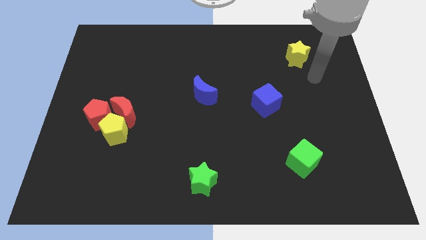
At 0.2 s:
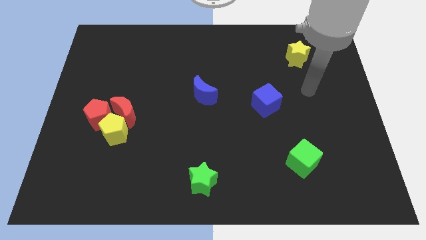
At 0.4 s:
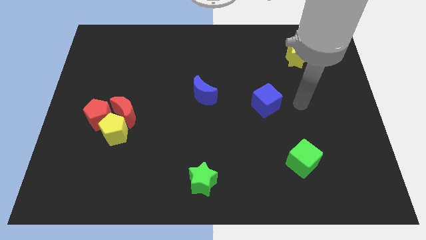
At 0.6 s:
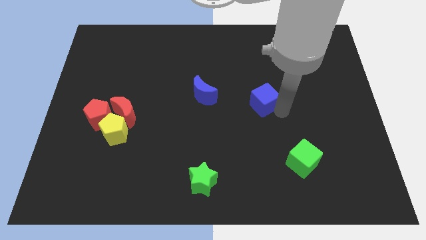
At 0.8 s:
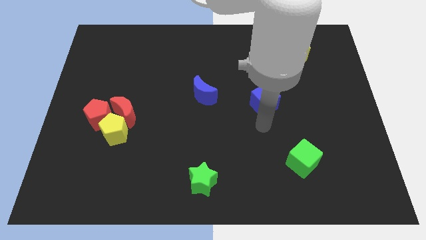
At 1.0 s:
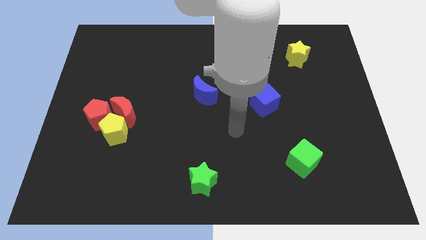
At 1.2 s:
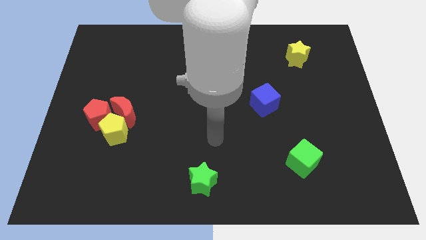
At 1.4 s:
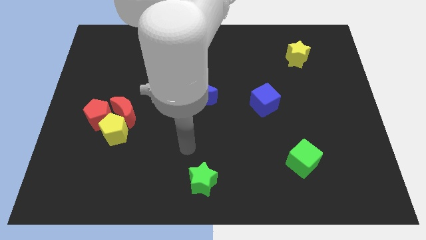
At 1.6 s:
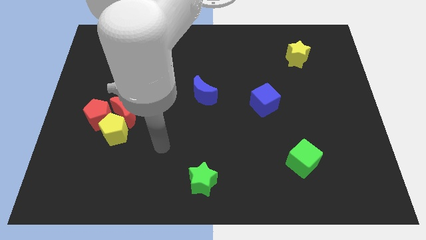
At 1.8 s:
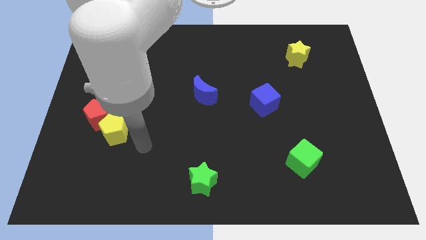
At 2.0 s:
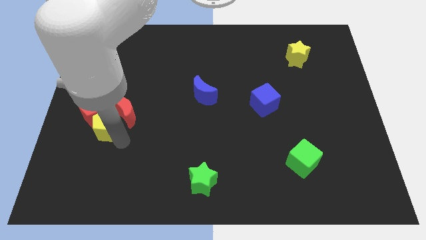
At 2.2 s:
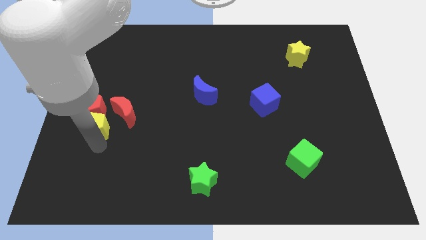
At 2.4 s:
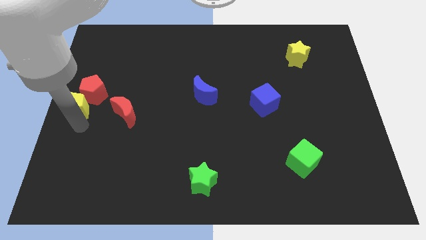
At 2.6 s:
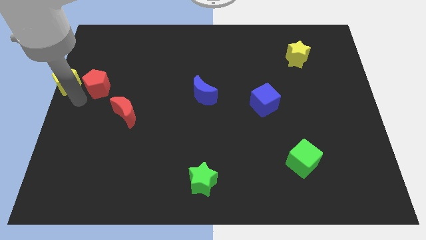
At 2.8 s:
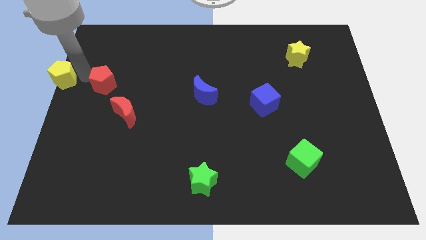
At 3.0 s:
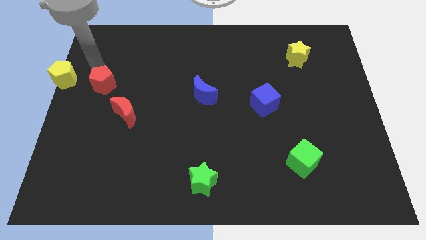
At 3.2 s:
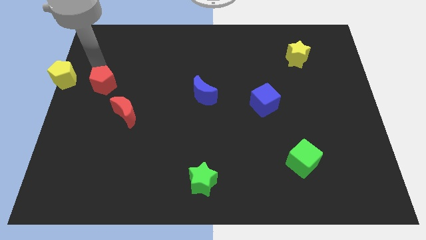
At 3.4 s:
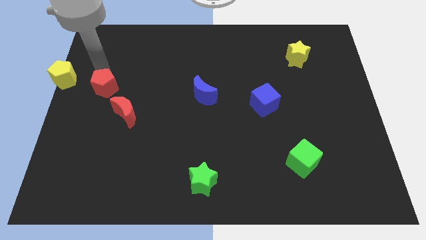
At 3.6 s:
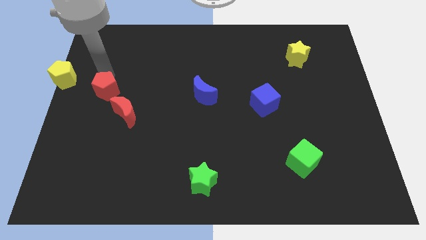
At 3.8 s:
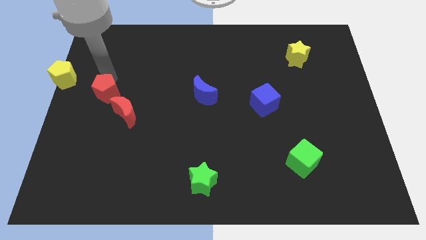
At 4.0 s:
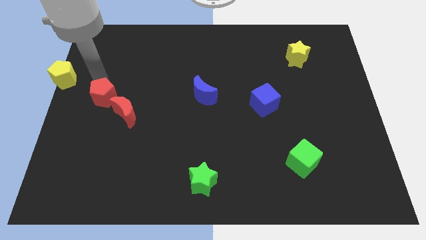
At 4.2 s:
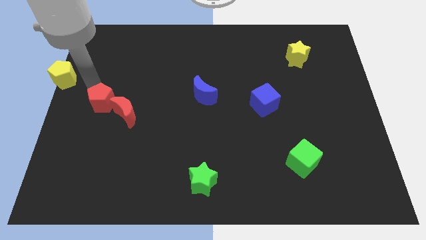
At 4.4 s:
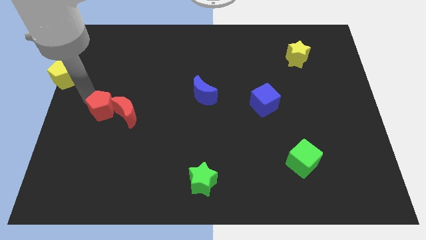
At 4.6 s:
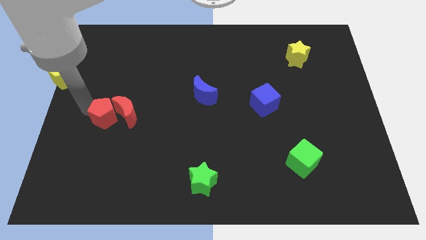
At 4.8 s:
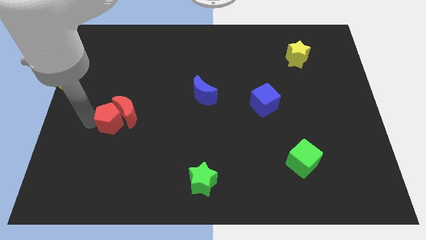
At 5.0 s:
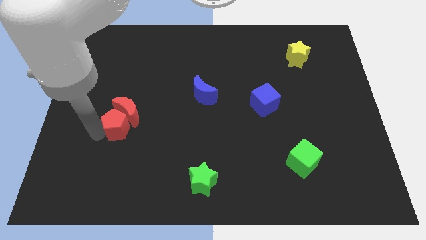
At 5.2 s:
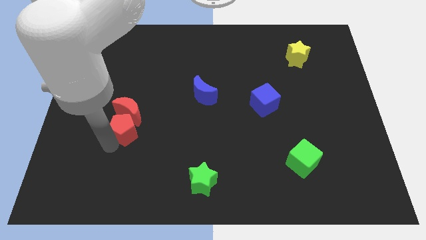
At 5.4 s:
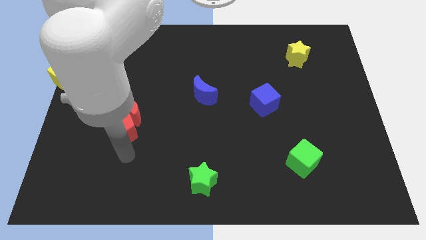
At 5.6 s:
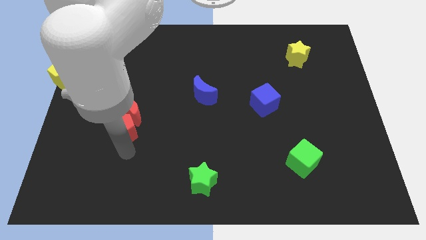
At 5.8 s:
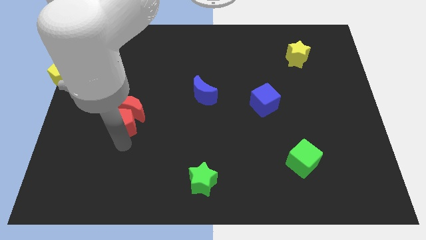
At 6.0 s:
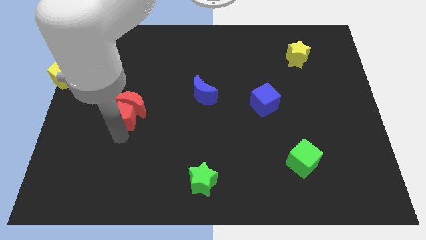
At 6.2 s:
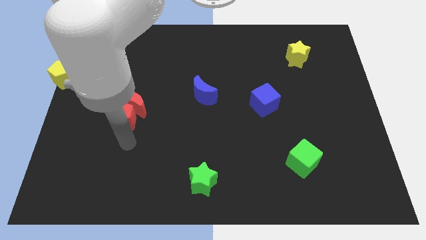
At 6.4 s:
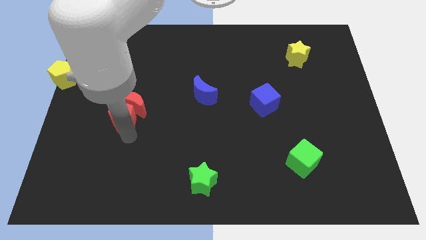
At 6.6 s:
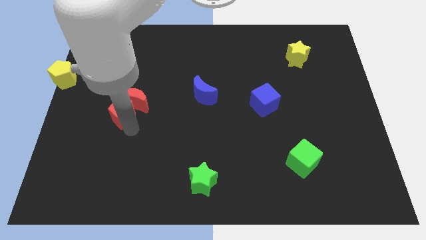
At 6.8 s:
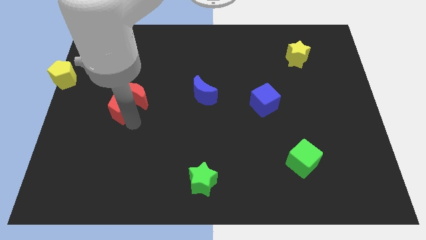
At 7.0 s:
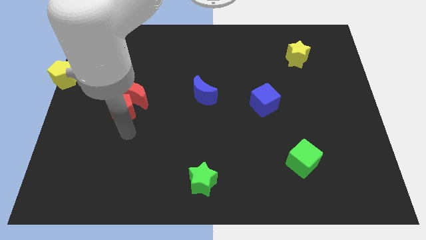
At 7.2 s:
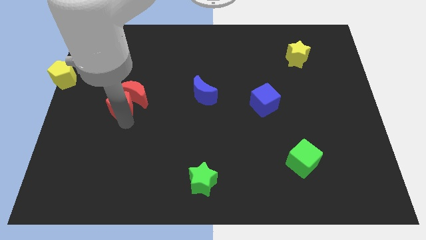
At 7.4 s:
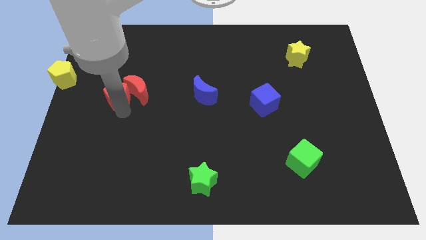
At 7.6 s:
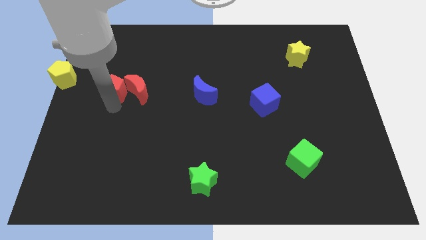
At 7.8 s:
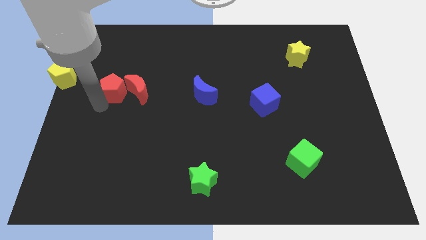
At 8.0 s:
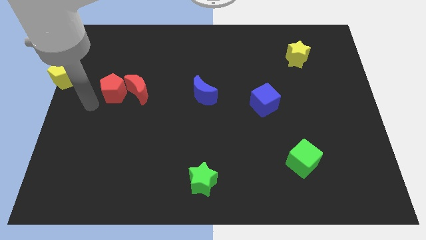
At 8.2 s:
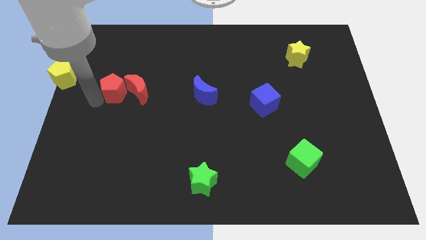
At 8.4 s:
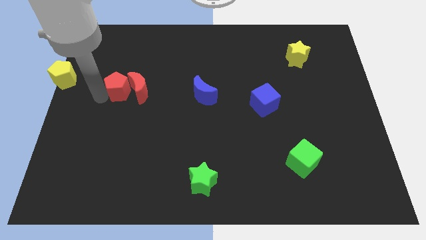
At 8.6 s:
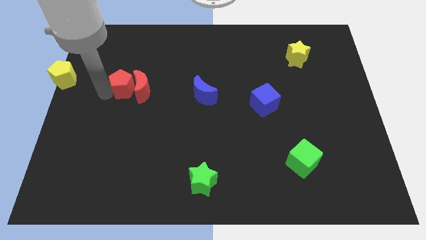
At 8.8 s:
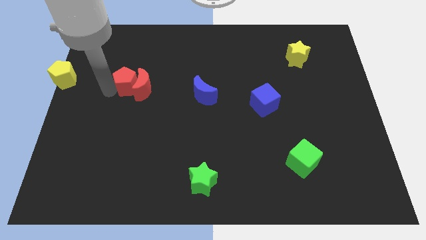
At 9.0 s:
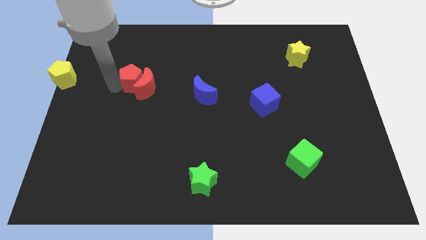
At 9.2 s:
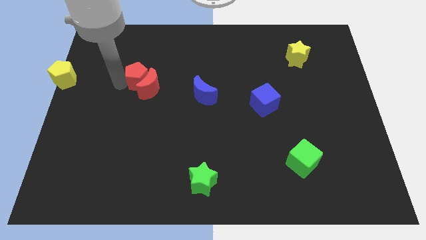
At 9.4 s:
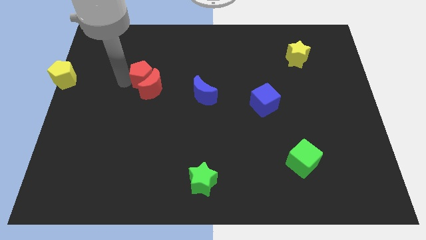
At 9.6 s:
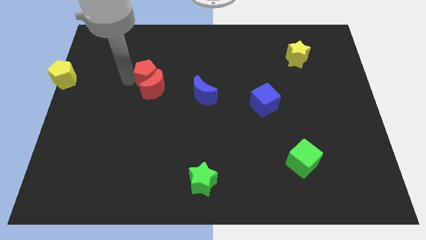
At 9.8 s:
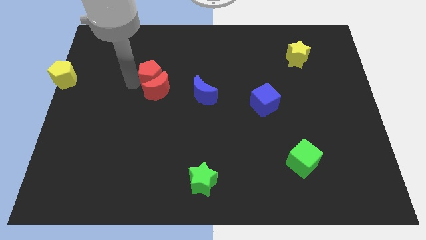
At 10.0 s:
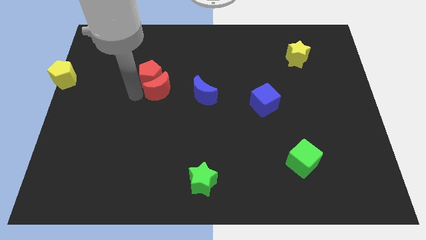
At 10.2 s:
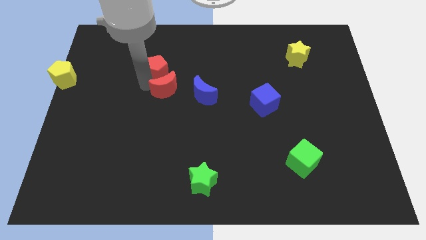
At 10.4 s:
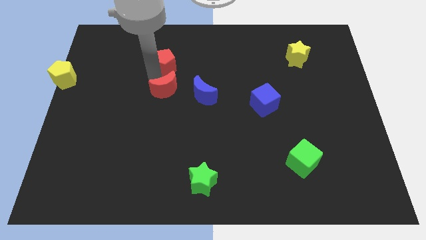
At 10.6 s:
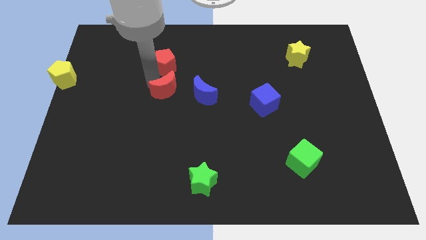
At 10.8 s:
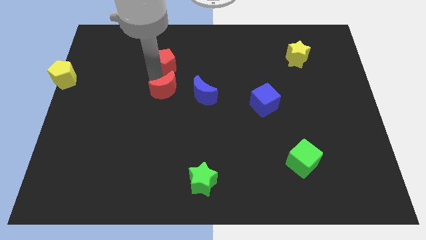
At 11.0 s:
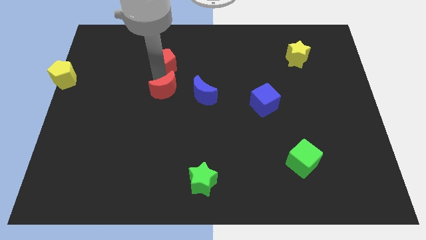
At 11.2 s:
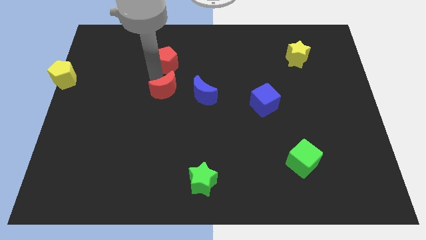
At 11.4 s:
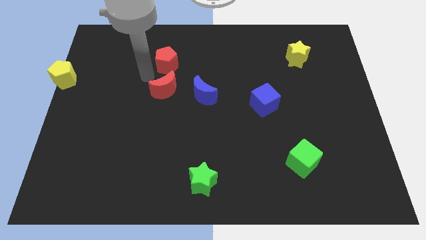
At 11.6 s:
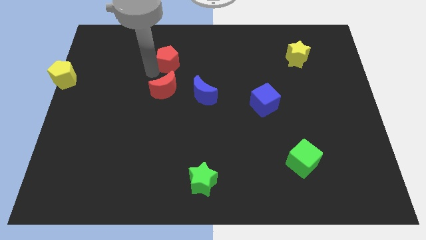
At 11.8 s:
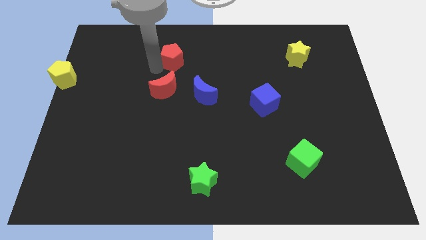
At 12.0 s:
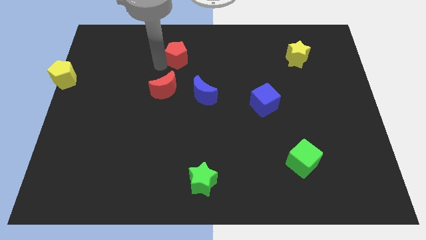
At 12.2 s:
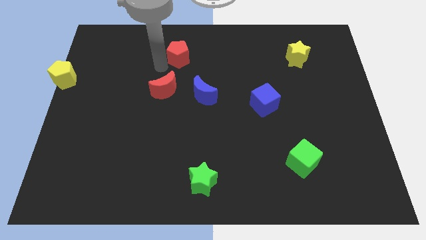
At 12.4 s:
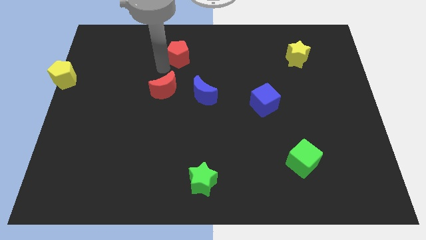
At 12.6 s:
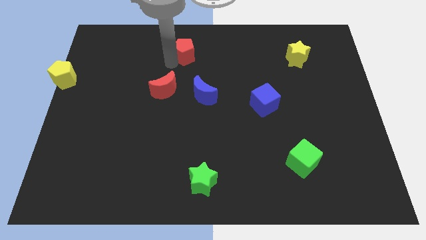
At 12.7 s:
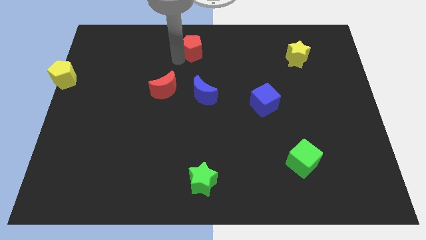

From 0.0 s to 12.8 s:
slide the red pentagon to the top side
